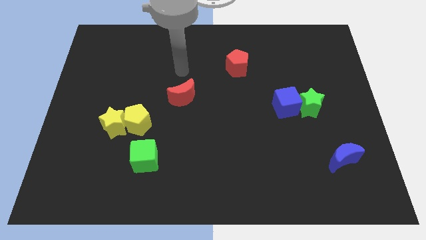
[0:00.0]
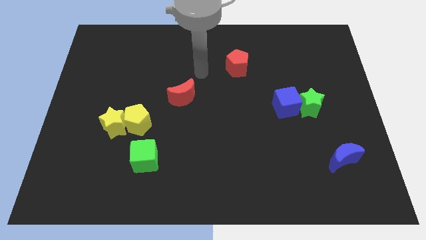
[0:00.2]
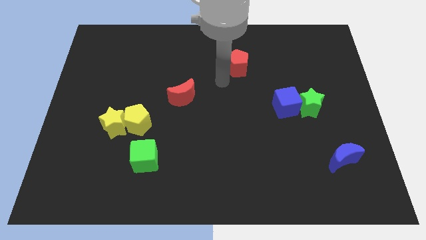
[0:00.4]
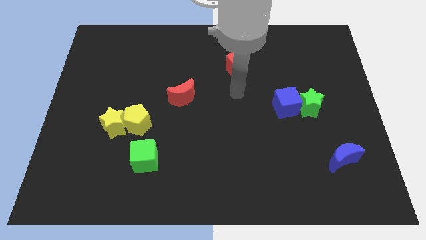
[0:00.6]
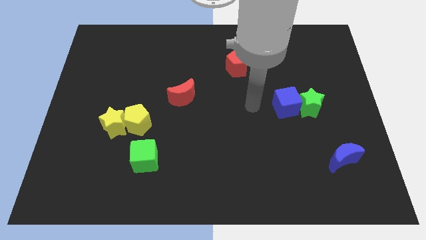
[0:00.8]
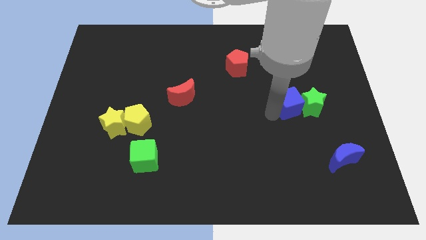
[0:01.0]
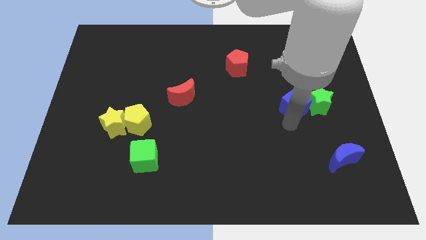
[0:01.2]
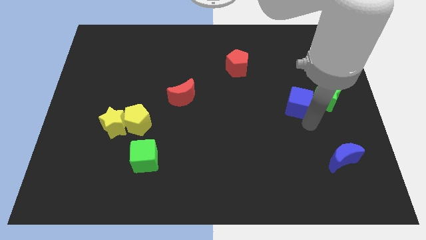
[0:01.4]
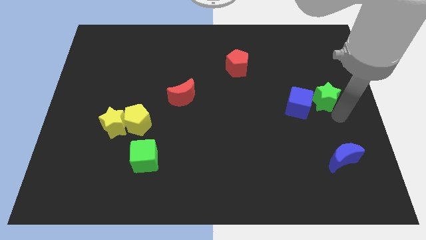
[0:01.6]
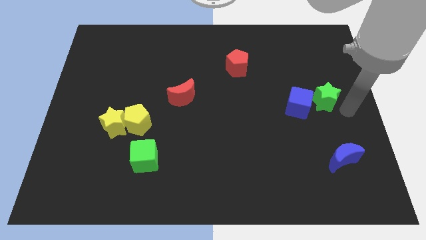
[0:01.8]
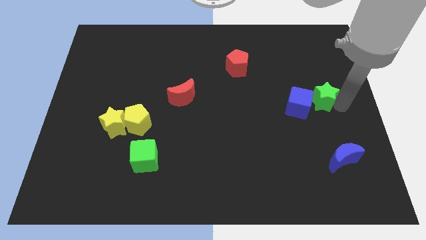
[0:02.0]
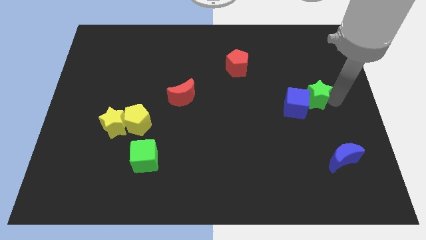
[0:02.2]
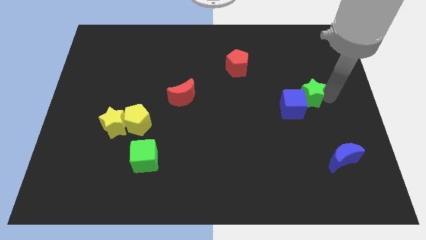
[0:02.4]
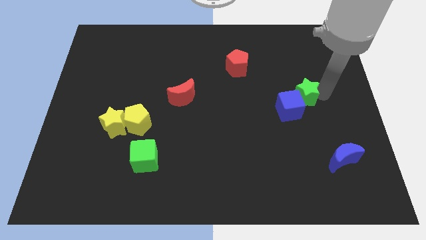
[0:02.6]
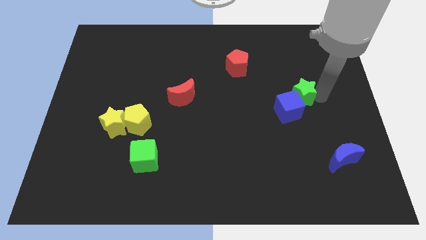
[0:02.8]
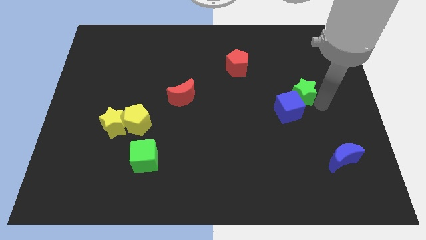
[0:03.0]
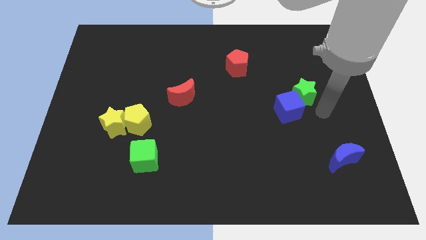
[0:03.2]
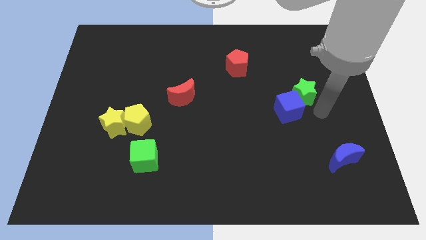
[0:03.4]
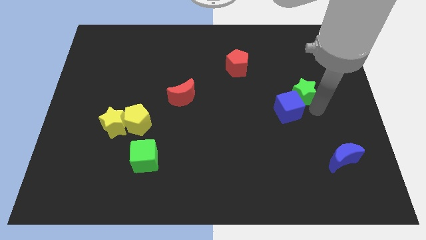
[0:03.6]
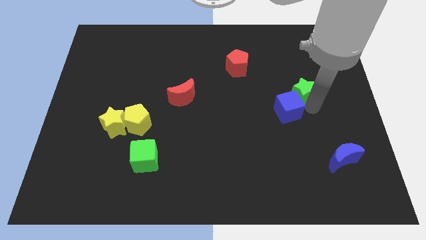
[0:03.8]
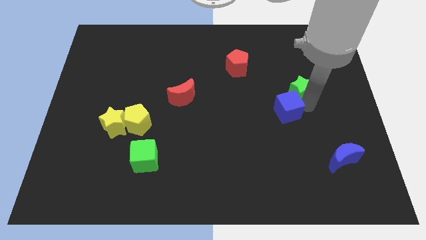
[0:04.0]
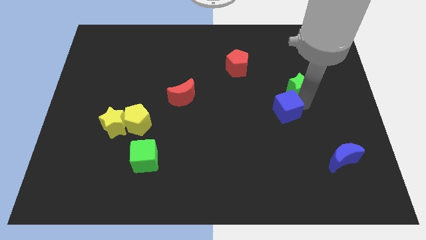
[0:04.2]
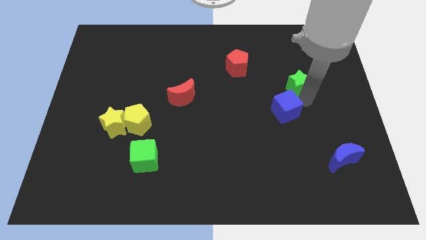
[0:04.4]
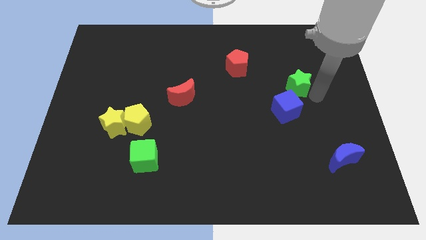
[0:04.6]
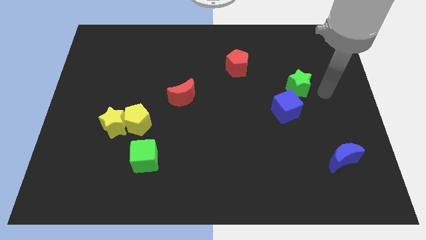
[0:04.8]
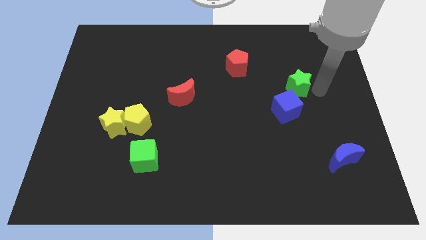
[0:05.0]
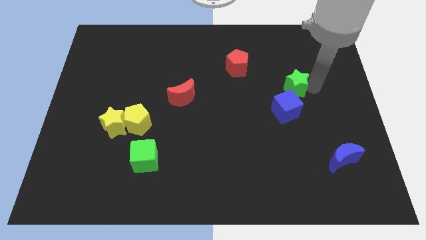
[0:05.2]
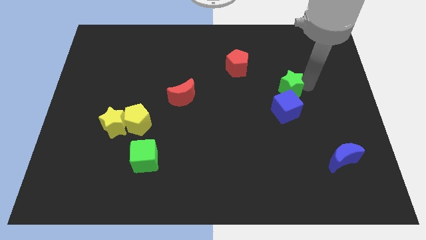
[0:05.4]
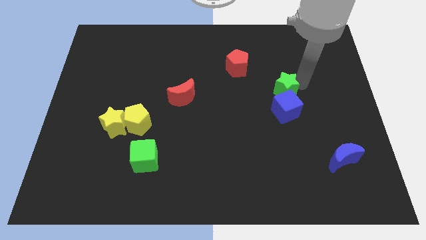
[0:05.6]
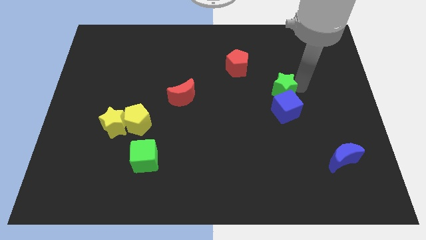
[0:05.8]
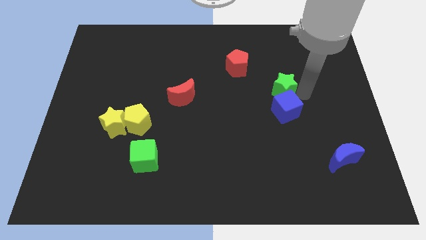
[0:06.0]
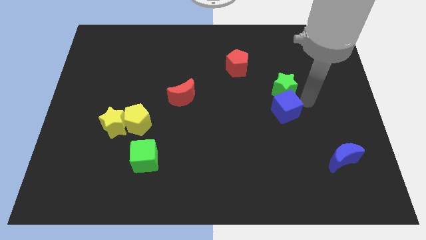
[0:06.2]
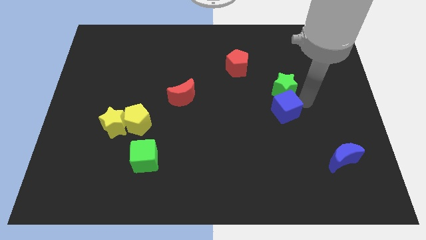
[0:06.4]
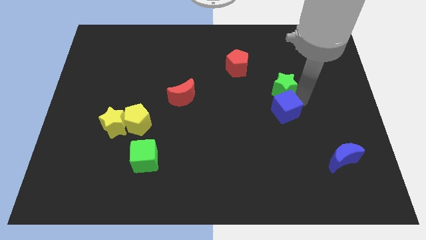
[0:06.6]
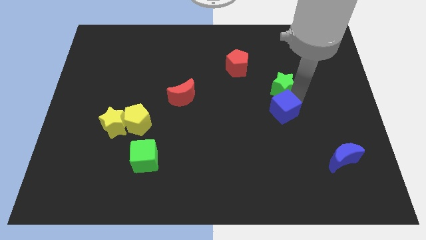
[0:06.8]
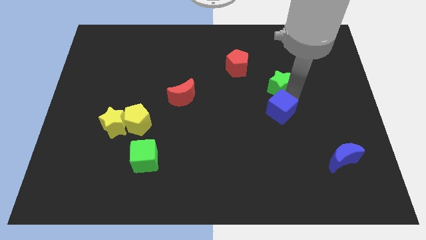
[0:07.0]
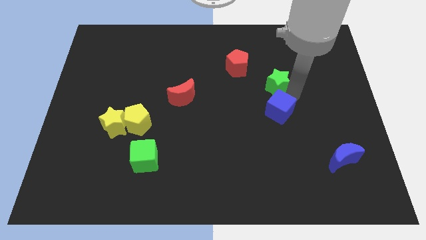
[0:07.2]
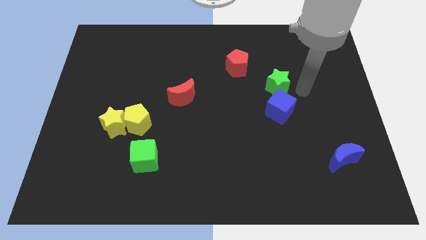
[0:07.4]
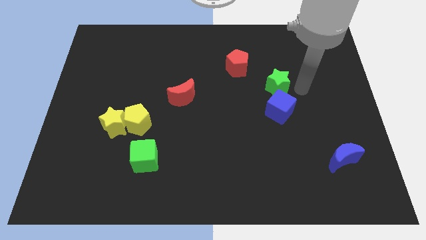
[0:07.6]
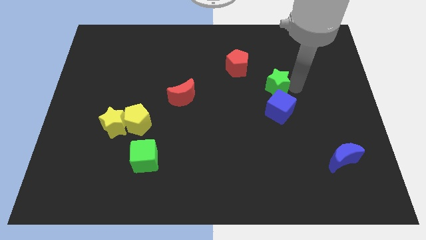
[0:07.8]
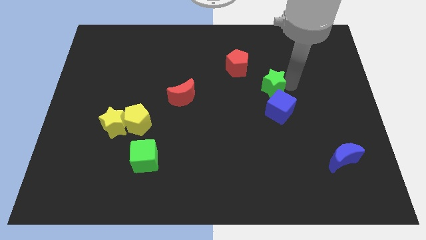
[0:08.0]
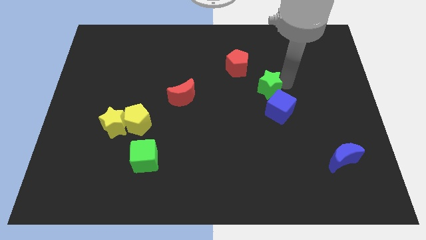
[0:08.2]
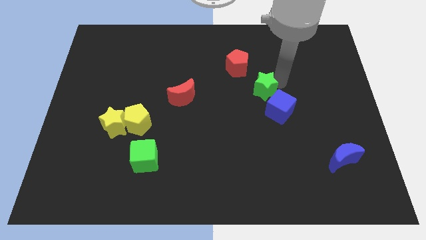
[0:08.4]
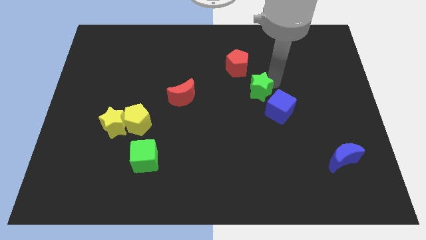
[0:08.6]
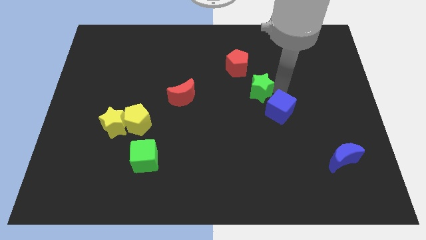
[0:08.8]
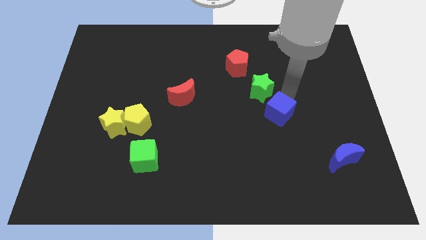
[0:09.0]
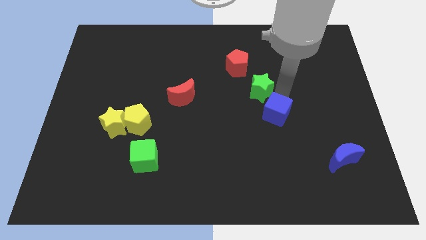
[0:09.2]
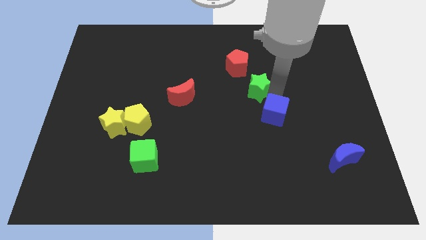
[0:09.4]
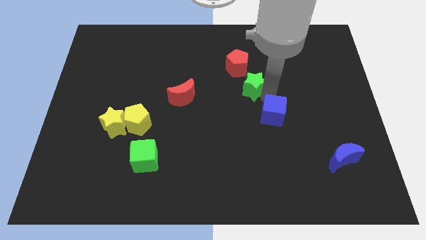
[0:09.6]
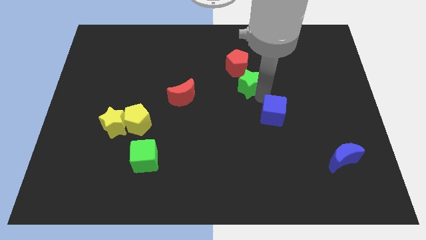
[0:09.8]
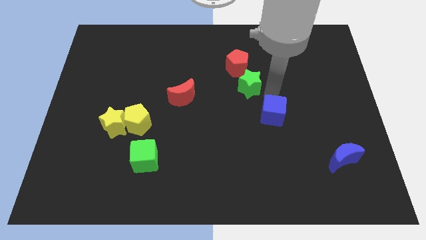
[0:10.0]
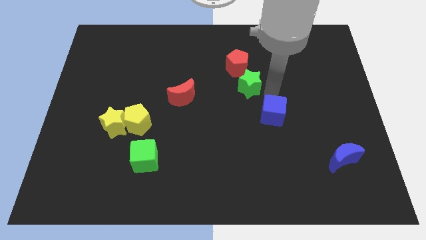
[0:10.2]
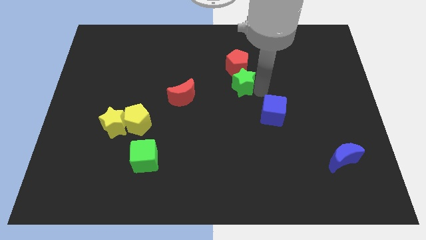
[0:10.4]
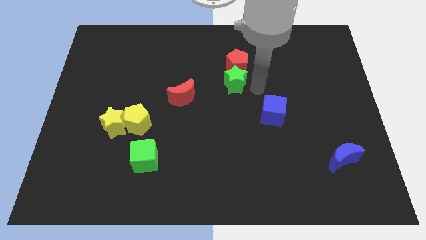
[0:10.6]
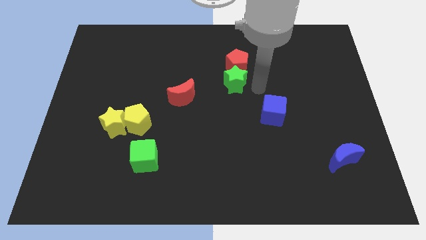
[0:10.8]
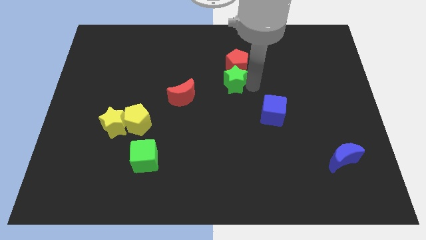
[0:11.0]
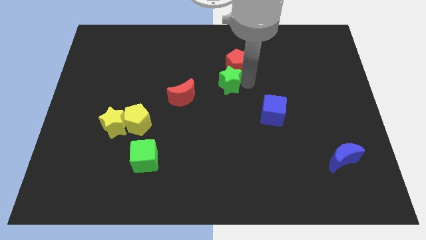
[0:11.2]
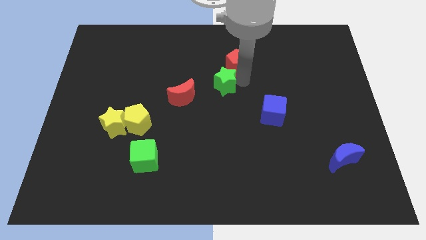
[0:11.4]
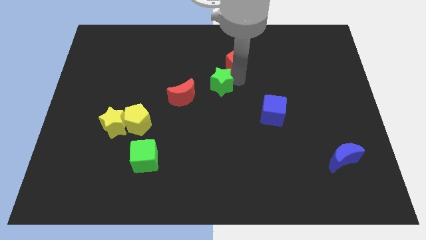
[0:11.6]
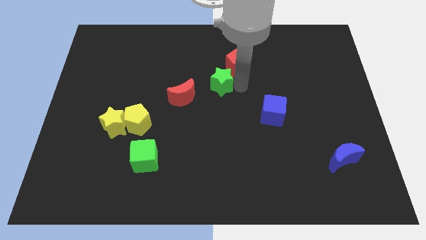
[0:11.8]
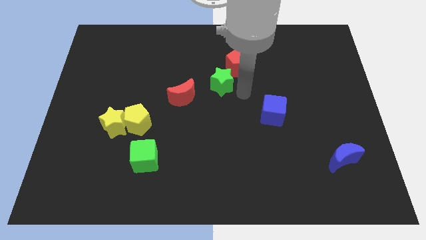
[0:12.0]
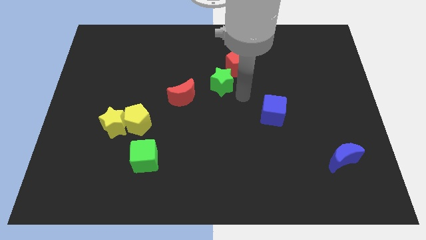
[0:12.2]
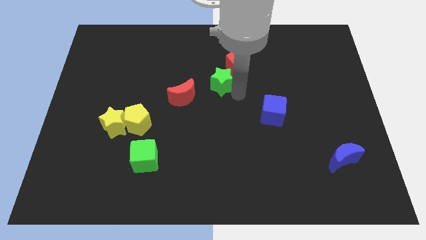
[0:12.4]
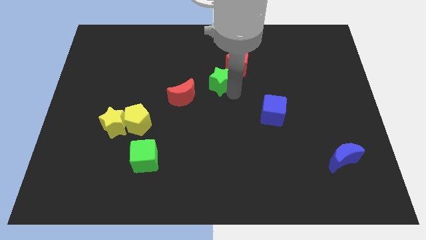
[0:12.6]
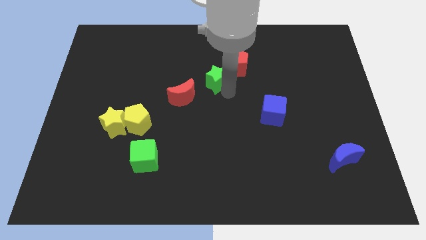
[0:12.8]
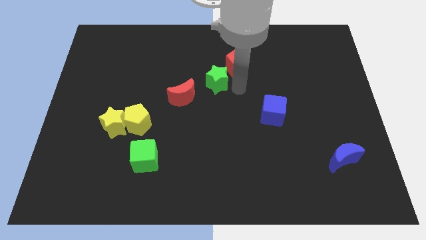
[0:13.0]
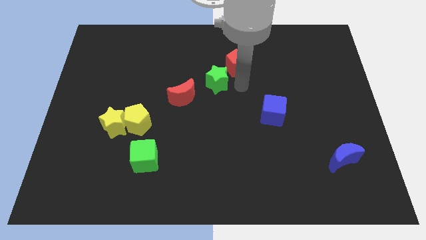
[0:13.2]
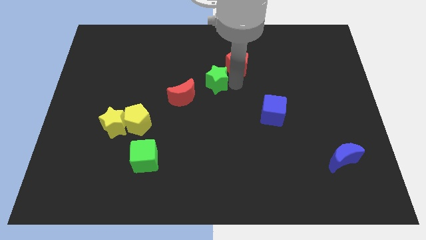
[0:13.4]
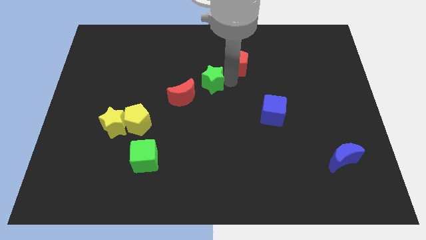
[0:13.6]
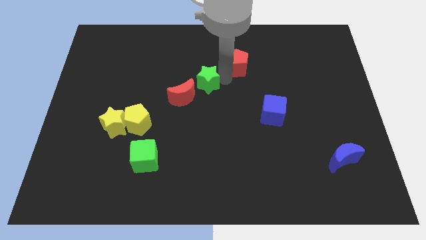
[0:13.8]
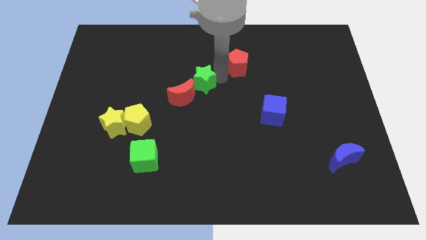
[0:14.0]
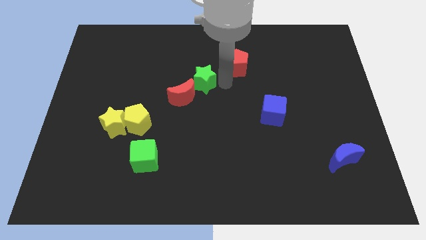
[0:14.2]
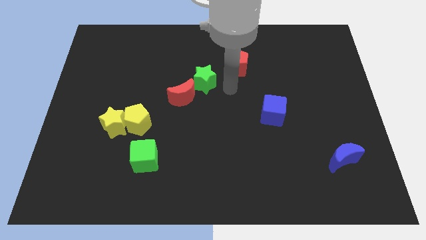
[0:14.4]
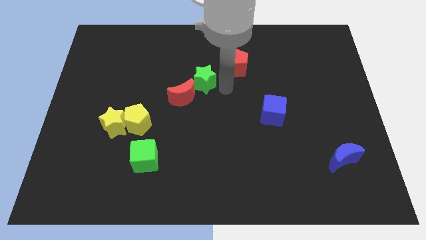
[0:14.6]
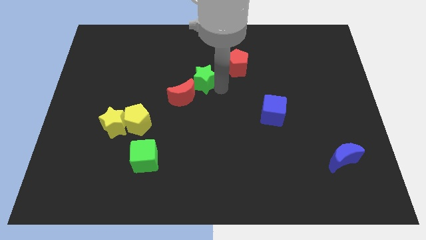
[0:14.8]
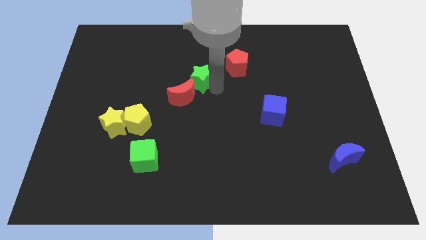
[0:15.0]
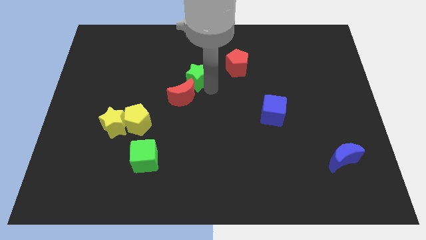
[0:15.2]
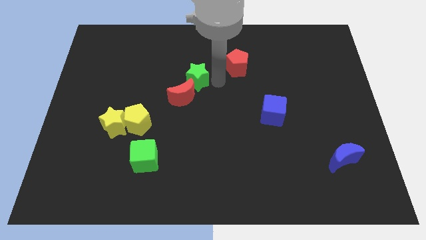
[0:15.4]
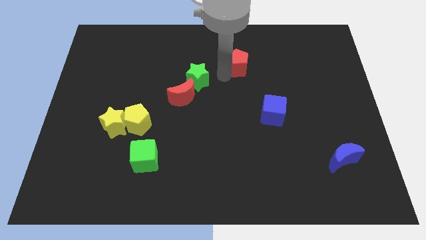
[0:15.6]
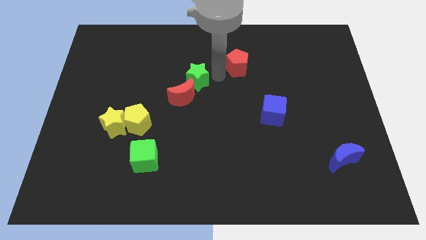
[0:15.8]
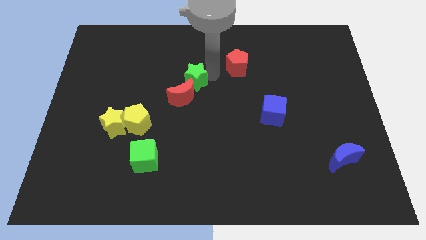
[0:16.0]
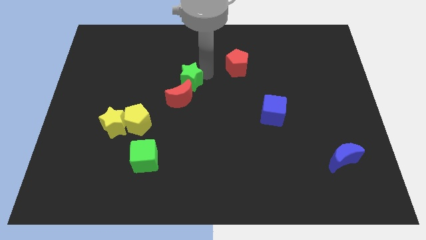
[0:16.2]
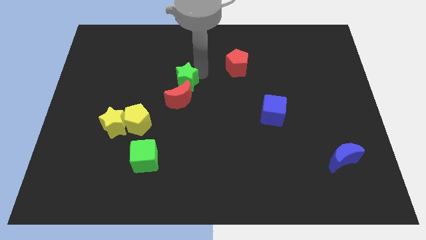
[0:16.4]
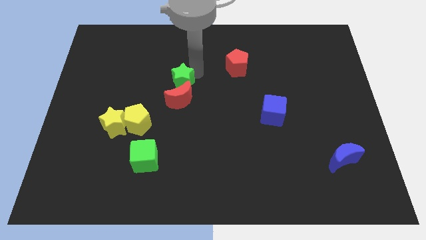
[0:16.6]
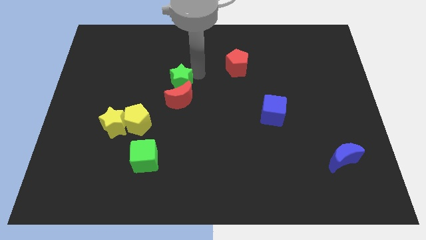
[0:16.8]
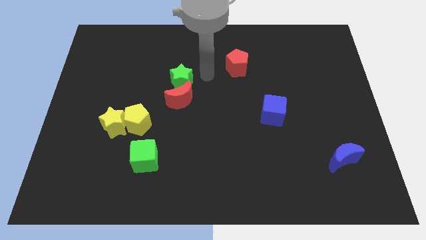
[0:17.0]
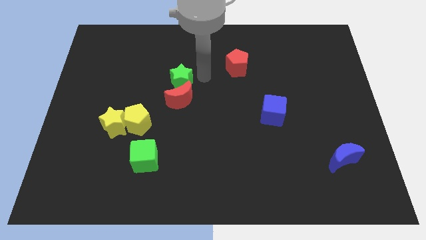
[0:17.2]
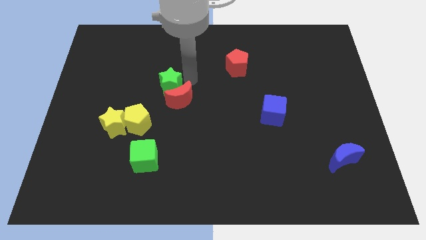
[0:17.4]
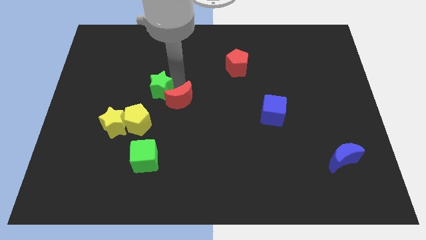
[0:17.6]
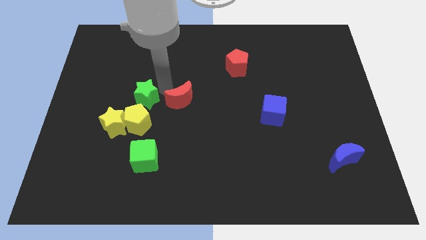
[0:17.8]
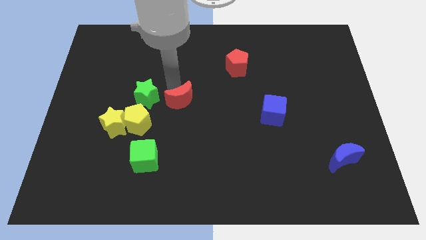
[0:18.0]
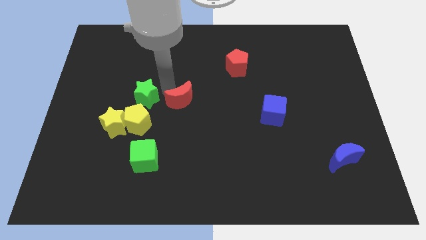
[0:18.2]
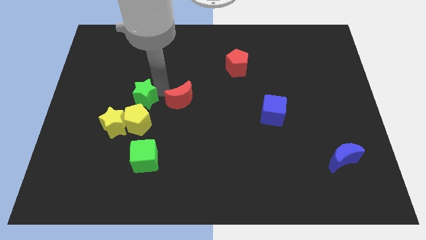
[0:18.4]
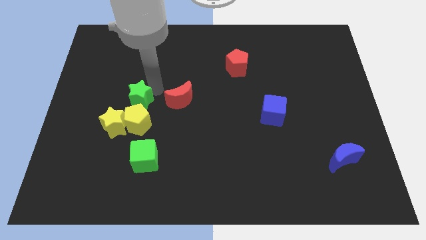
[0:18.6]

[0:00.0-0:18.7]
slide the green star to the top left side of the yellow pentagon
